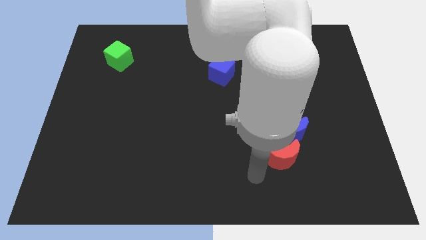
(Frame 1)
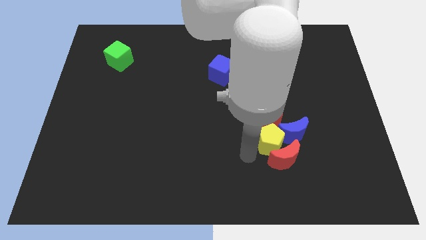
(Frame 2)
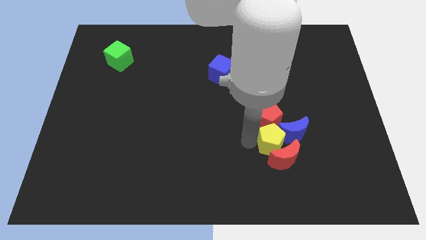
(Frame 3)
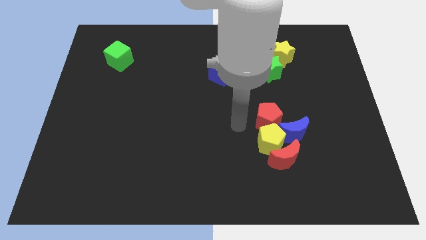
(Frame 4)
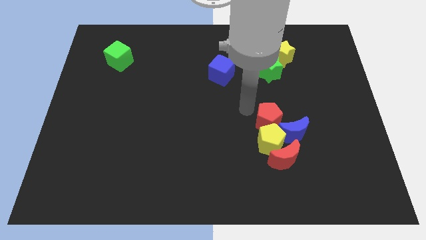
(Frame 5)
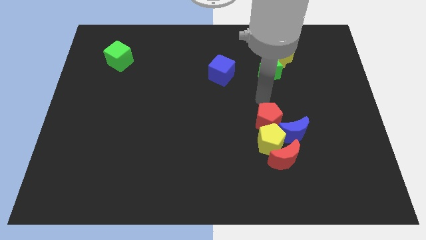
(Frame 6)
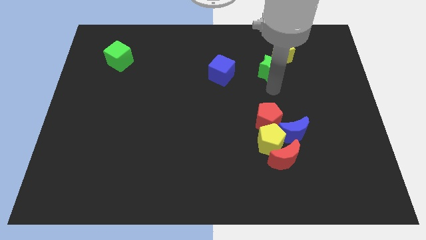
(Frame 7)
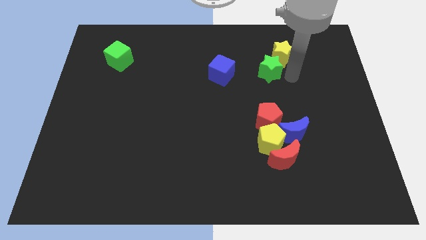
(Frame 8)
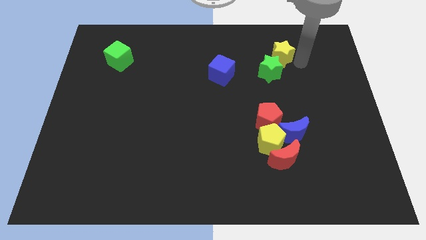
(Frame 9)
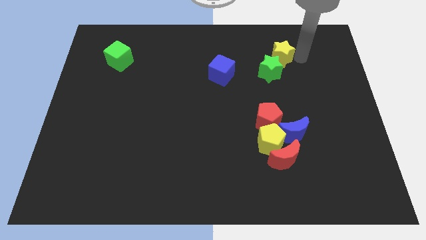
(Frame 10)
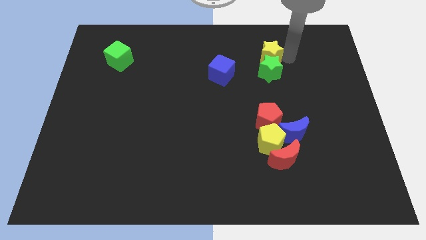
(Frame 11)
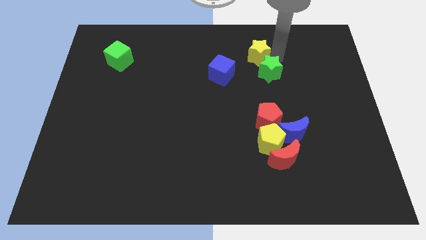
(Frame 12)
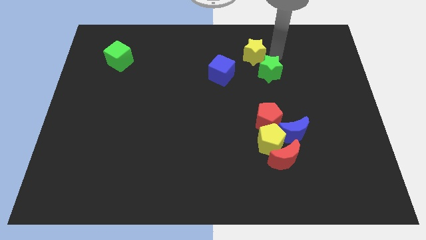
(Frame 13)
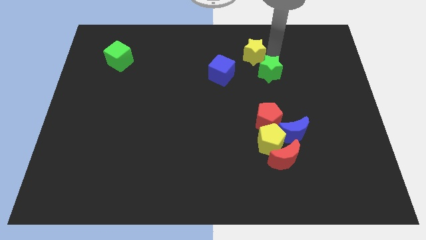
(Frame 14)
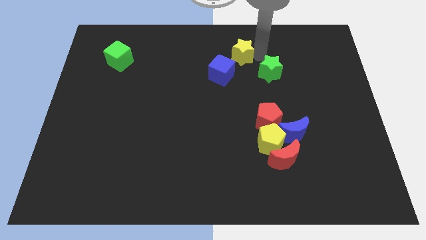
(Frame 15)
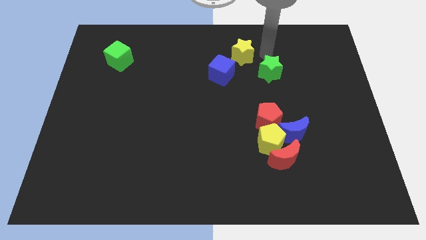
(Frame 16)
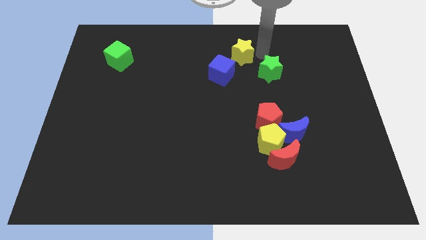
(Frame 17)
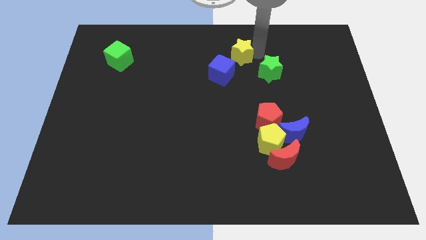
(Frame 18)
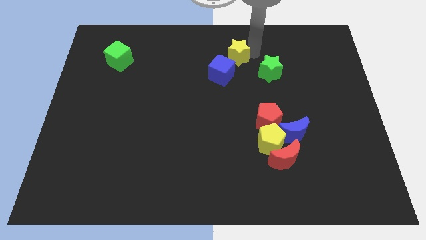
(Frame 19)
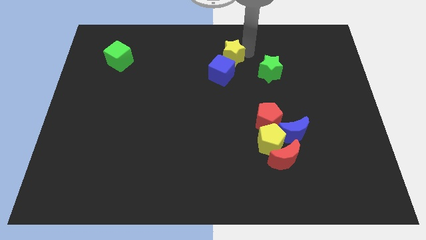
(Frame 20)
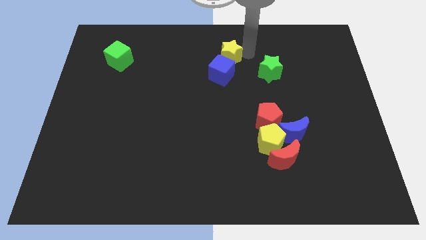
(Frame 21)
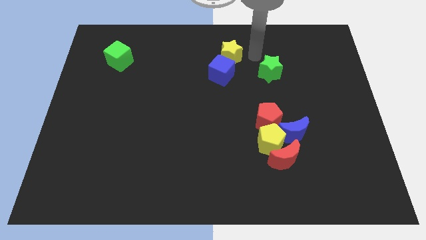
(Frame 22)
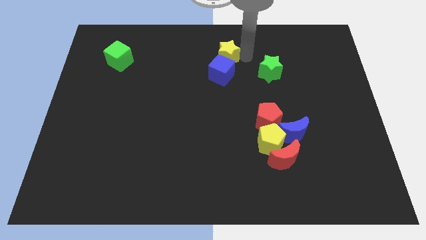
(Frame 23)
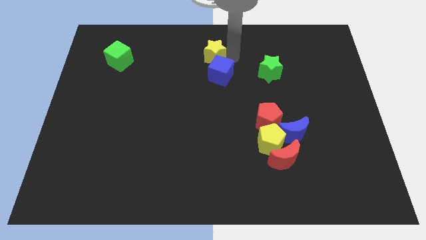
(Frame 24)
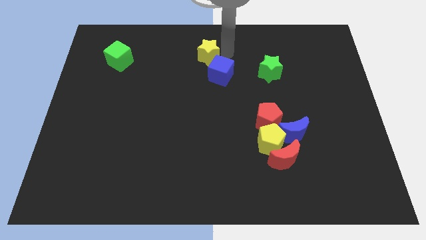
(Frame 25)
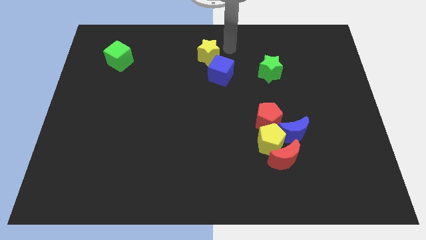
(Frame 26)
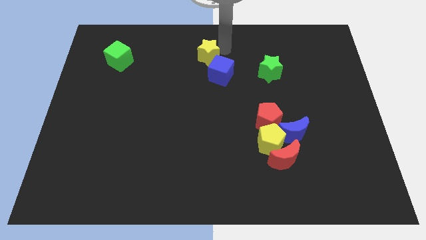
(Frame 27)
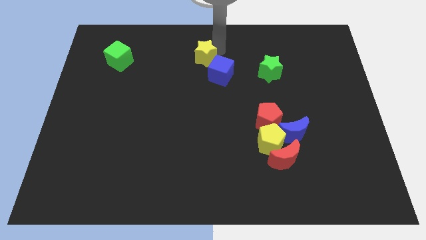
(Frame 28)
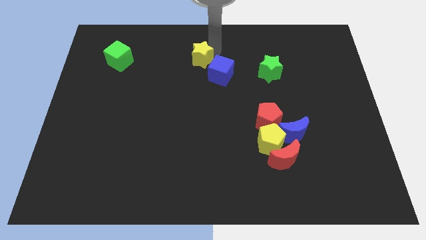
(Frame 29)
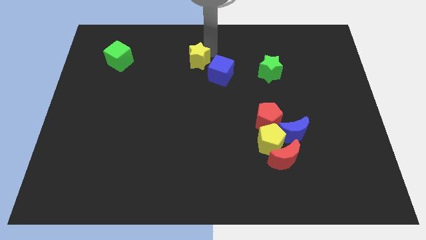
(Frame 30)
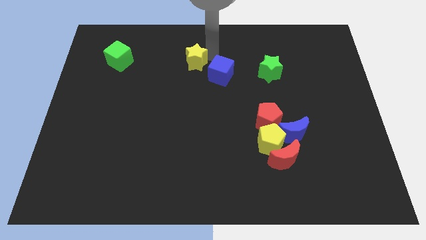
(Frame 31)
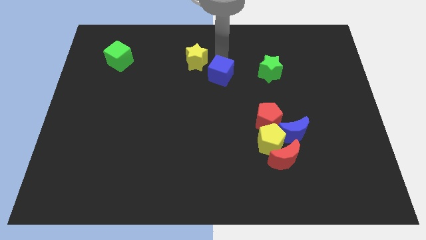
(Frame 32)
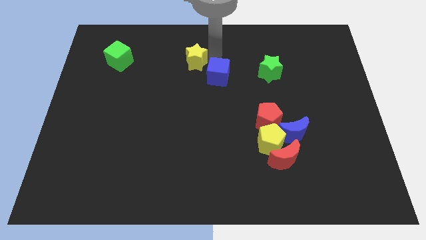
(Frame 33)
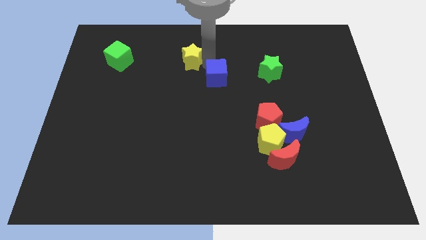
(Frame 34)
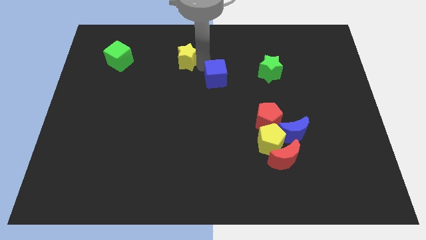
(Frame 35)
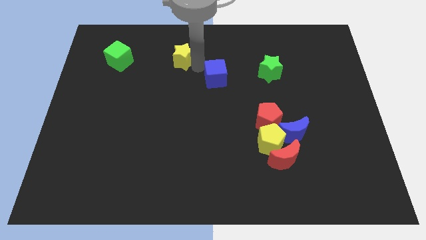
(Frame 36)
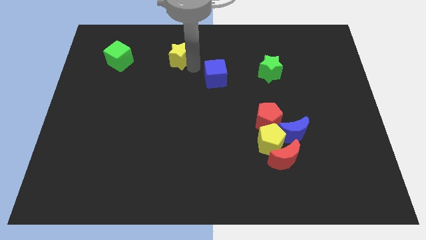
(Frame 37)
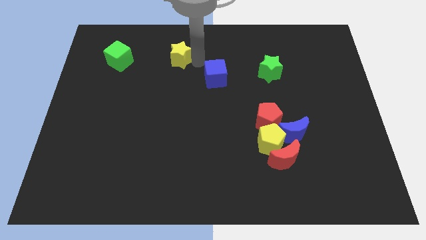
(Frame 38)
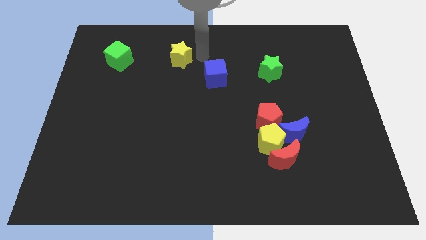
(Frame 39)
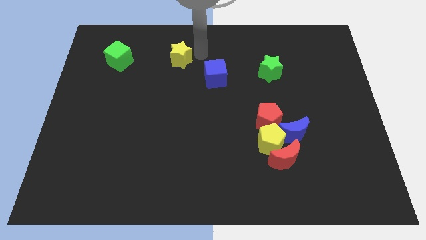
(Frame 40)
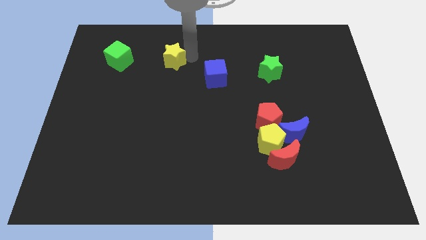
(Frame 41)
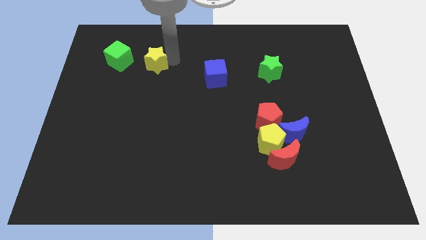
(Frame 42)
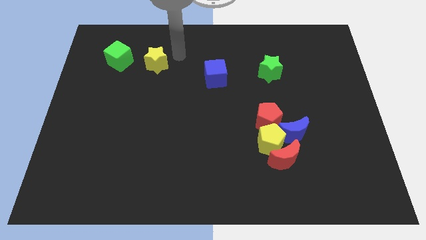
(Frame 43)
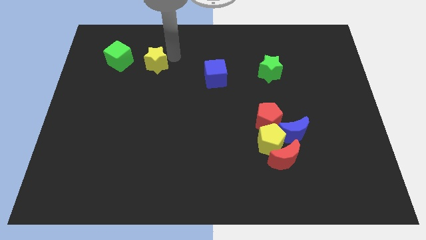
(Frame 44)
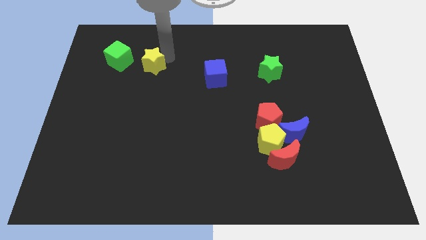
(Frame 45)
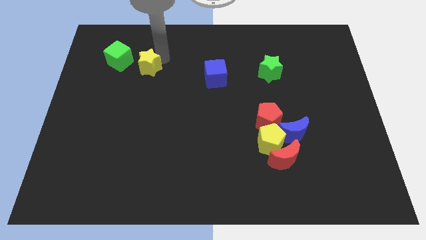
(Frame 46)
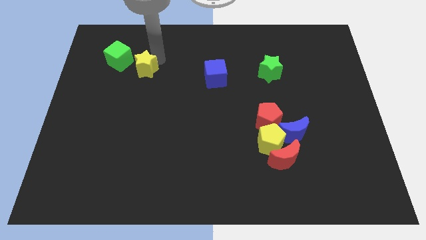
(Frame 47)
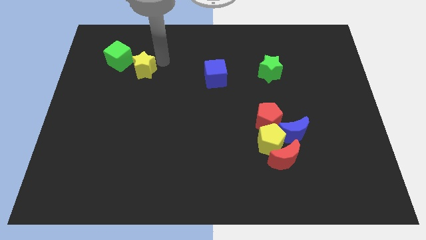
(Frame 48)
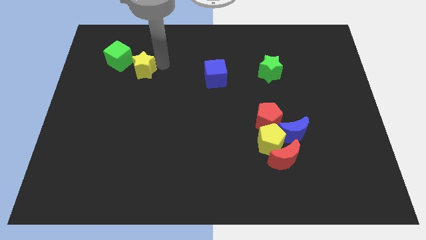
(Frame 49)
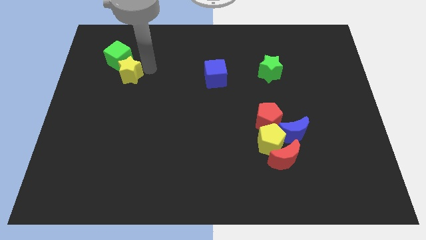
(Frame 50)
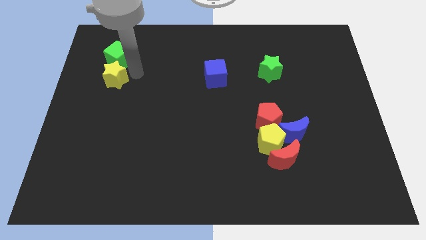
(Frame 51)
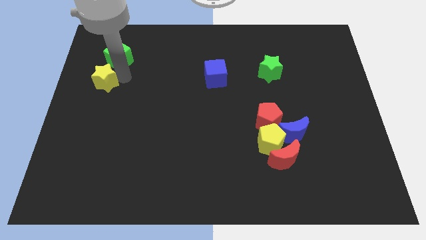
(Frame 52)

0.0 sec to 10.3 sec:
put the yellow star to the left side of the board

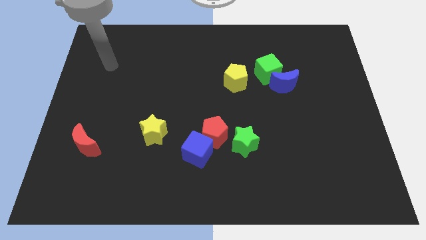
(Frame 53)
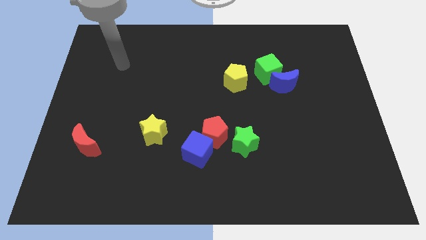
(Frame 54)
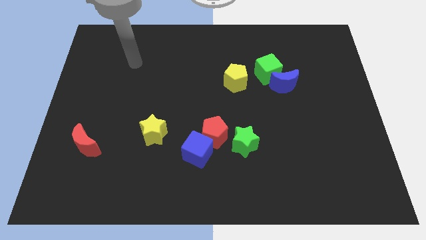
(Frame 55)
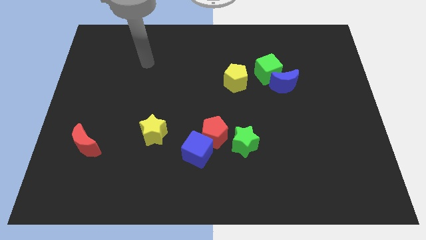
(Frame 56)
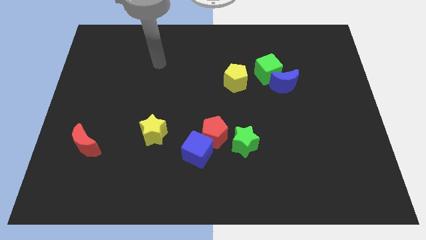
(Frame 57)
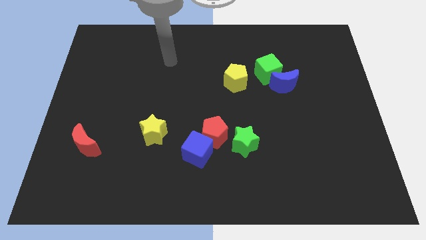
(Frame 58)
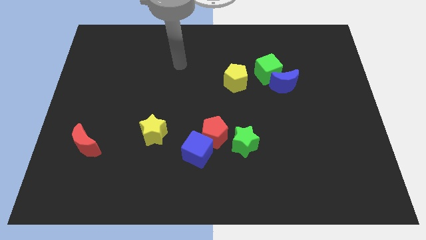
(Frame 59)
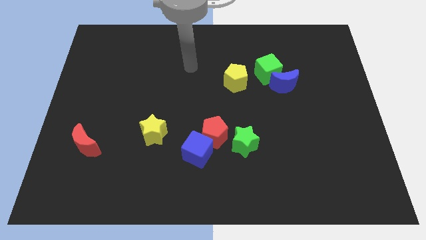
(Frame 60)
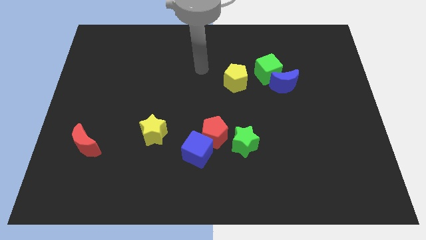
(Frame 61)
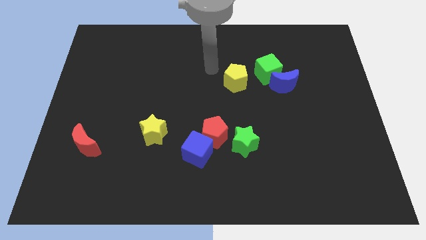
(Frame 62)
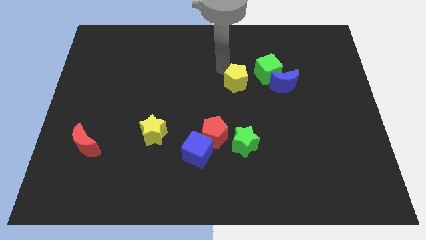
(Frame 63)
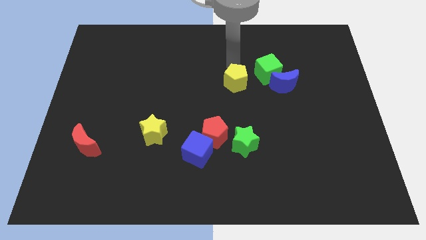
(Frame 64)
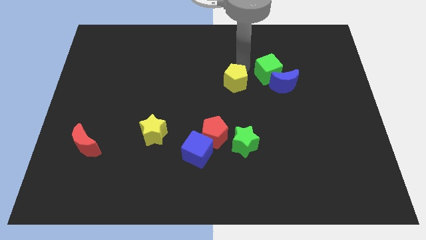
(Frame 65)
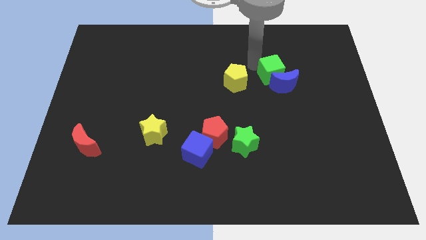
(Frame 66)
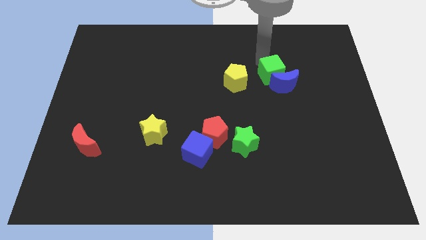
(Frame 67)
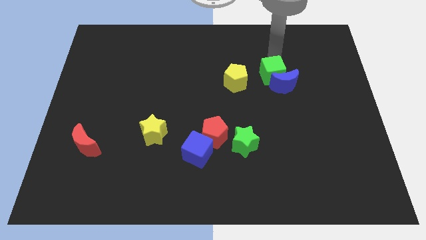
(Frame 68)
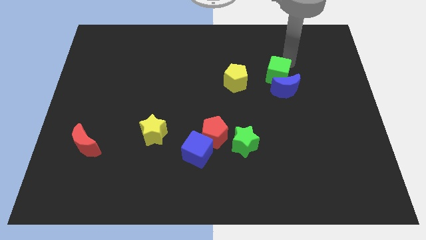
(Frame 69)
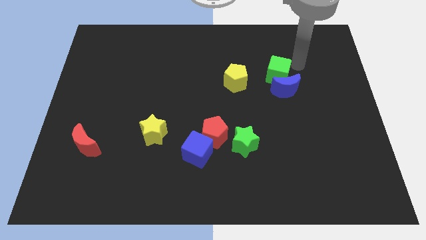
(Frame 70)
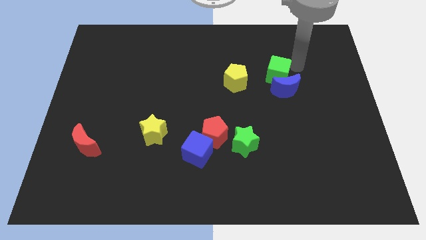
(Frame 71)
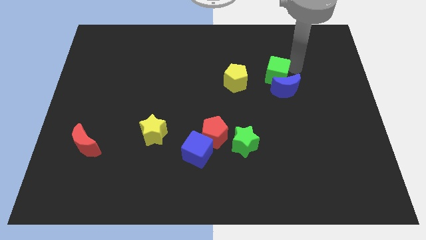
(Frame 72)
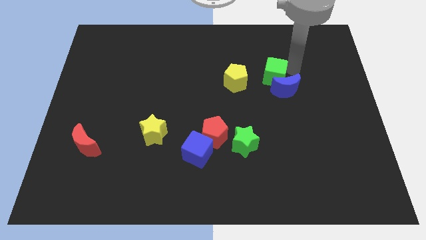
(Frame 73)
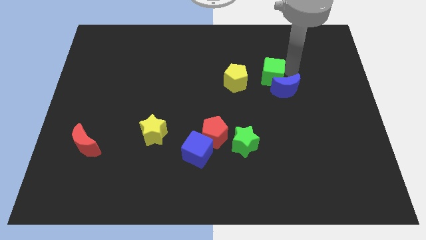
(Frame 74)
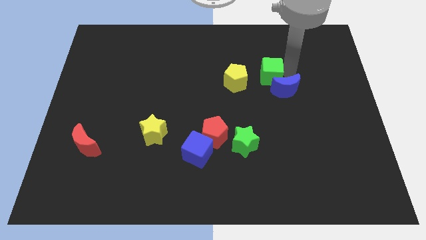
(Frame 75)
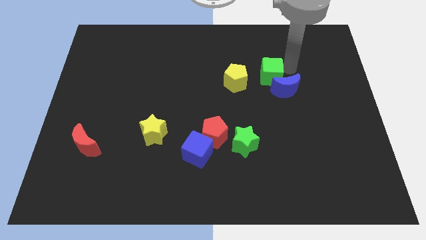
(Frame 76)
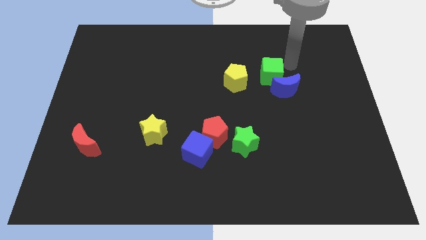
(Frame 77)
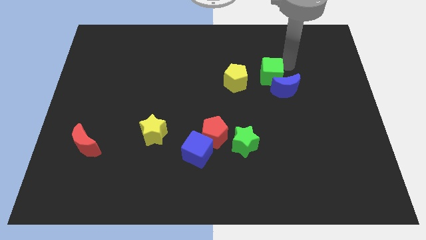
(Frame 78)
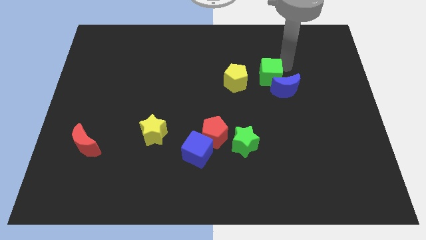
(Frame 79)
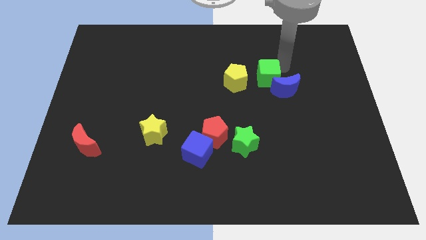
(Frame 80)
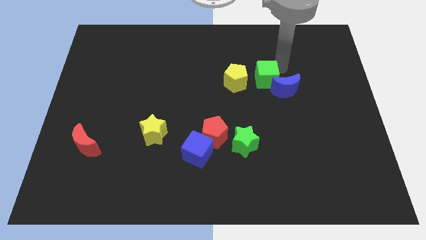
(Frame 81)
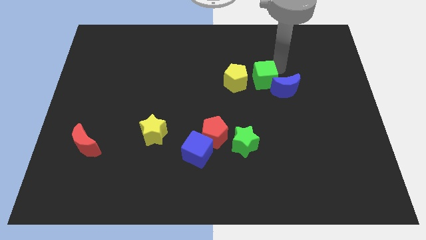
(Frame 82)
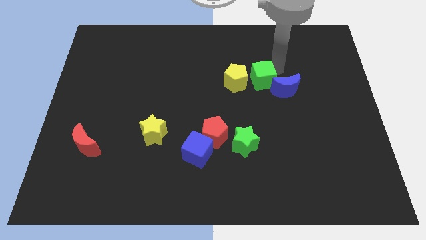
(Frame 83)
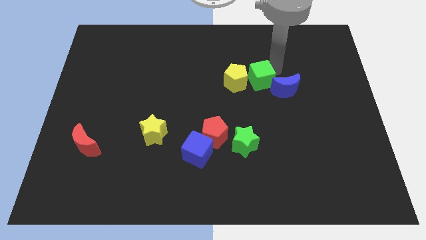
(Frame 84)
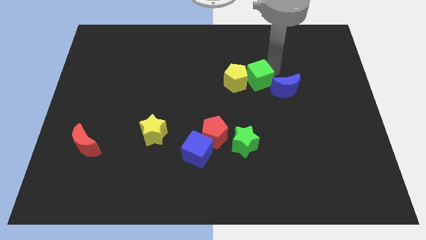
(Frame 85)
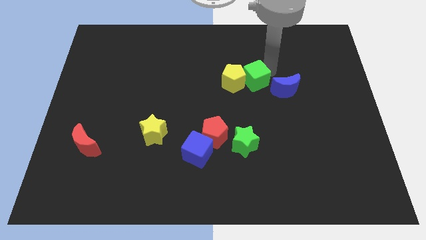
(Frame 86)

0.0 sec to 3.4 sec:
put the green cube to the middle
